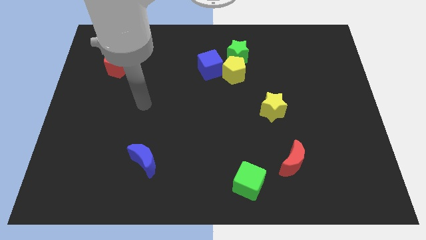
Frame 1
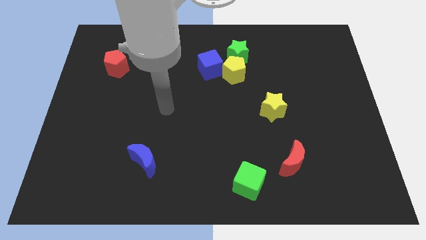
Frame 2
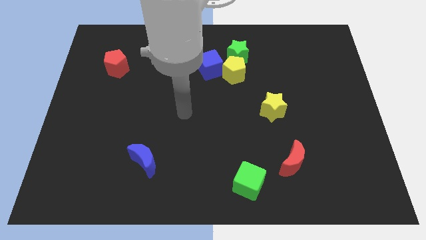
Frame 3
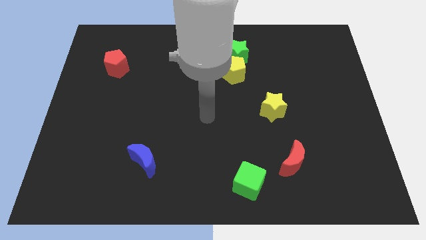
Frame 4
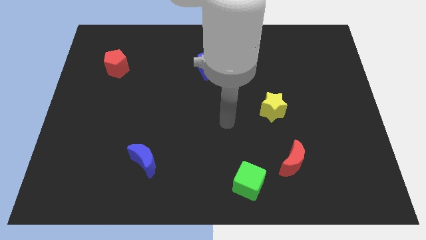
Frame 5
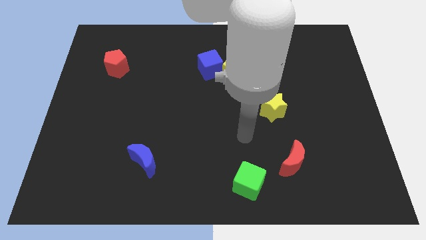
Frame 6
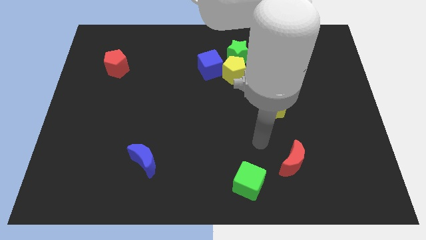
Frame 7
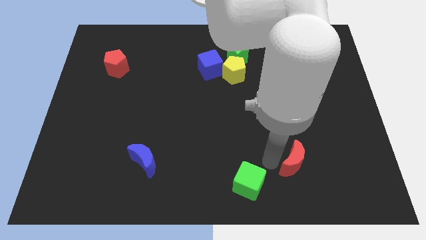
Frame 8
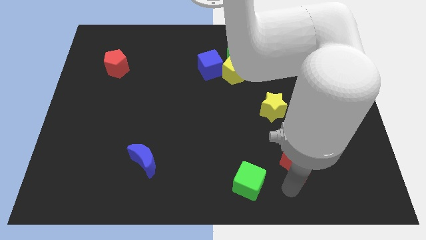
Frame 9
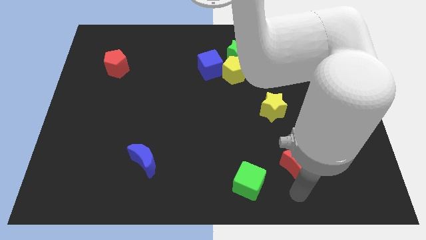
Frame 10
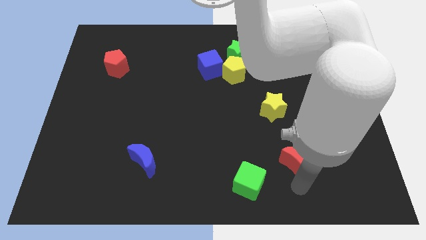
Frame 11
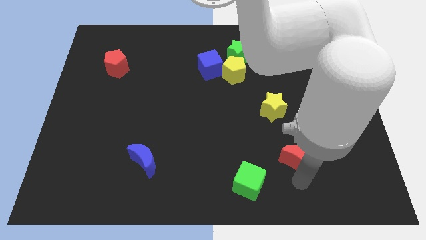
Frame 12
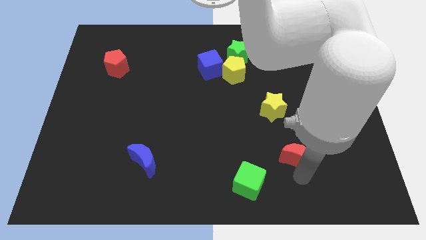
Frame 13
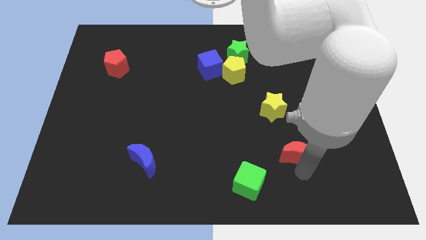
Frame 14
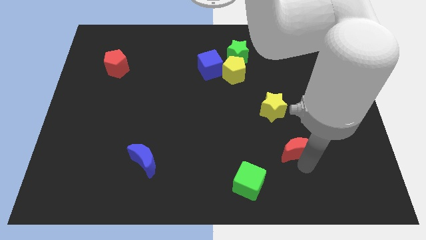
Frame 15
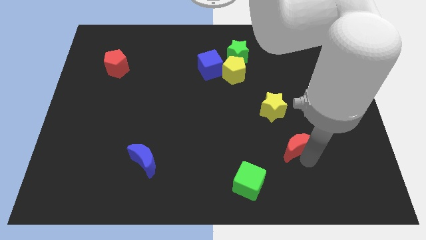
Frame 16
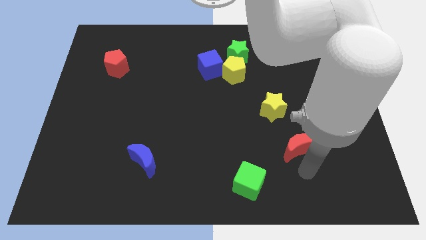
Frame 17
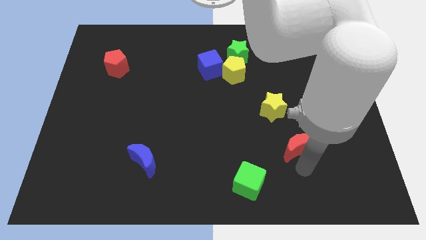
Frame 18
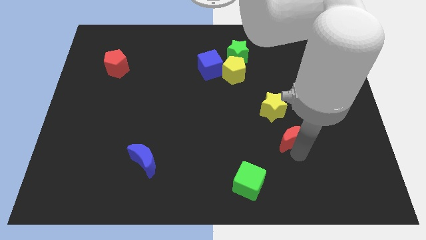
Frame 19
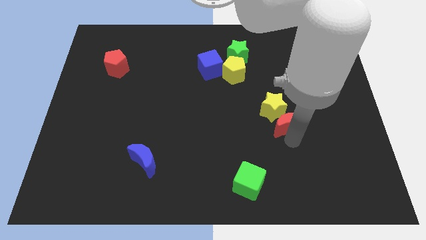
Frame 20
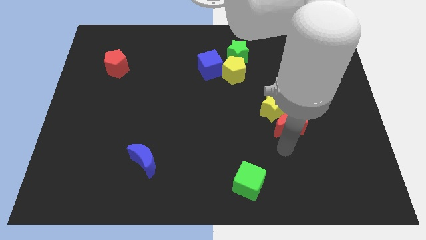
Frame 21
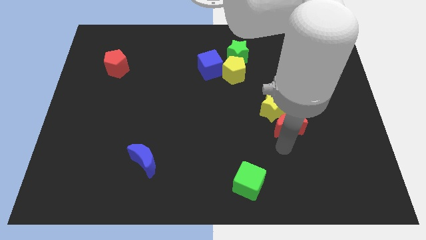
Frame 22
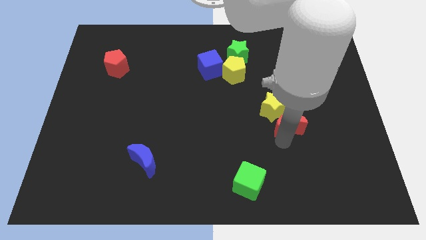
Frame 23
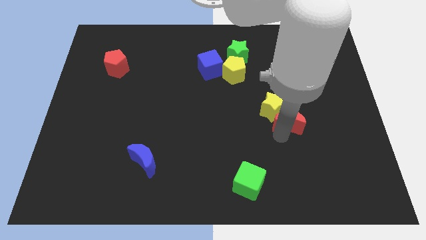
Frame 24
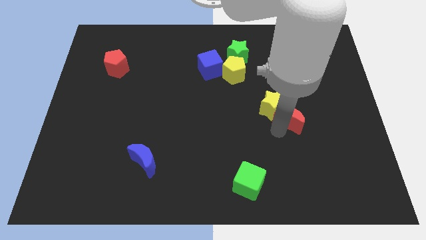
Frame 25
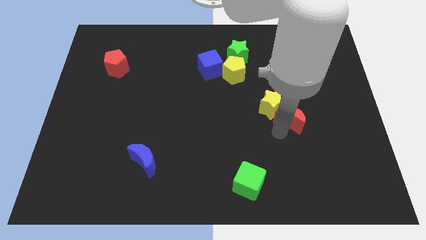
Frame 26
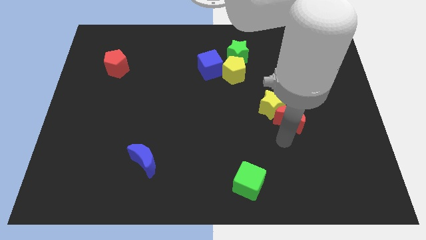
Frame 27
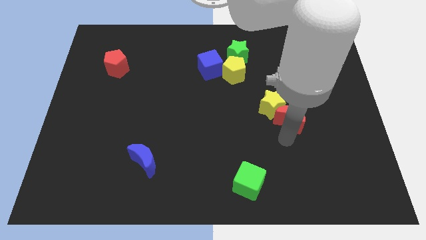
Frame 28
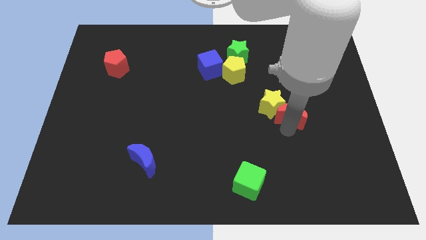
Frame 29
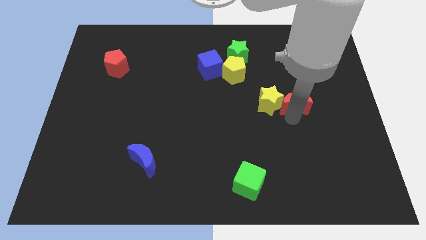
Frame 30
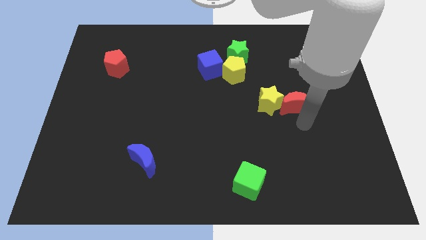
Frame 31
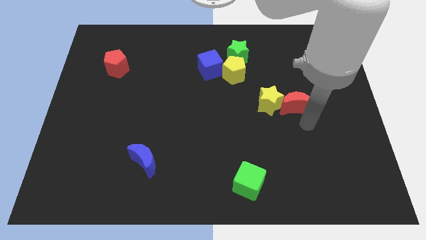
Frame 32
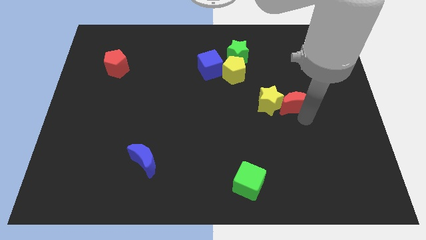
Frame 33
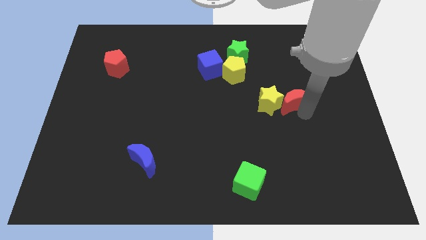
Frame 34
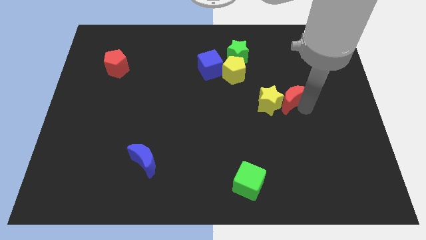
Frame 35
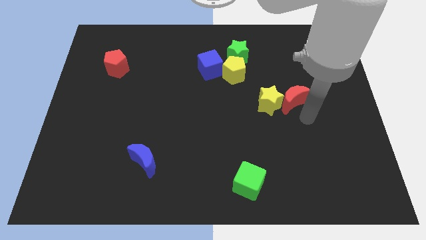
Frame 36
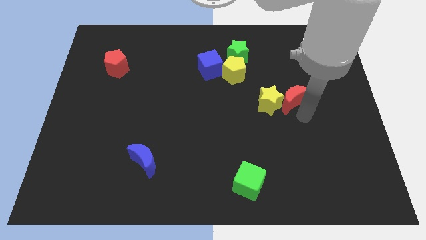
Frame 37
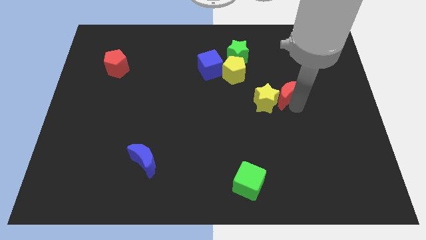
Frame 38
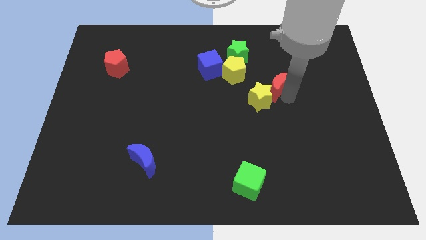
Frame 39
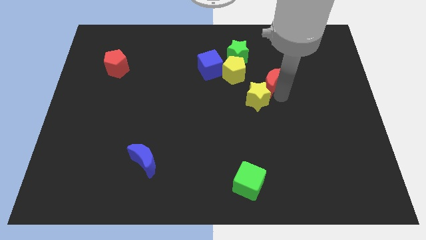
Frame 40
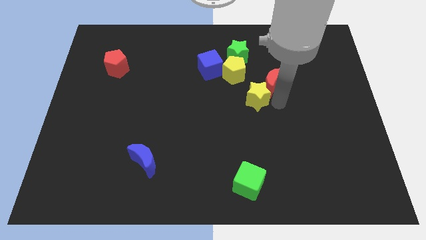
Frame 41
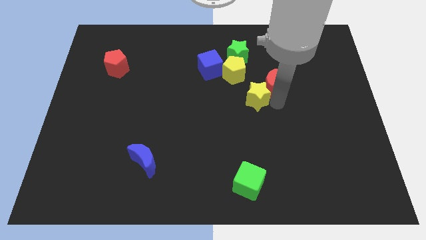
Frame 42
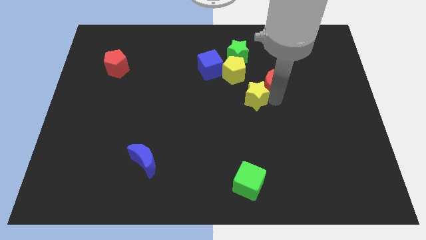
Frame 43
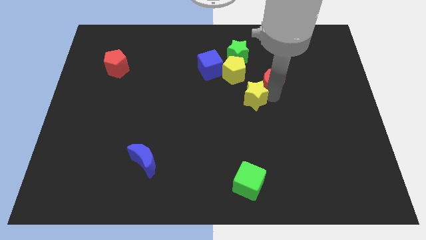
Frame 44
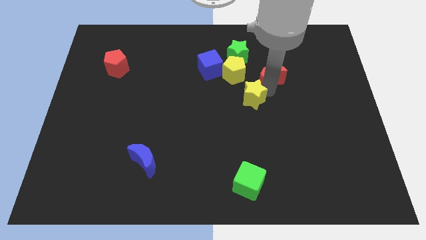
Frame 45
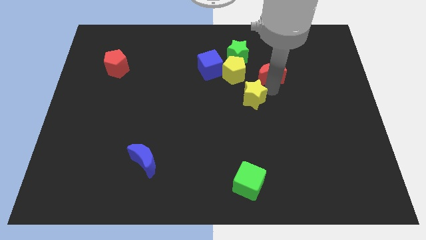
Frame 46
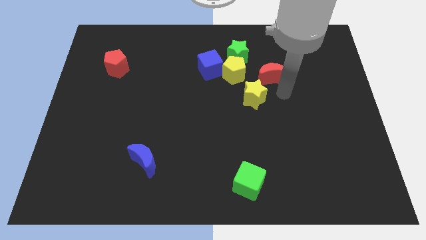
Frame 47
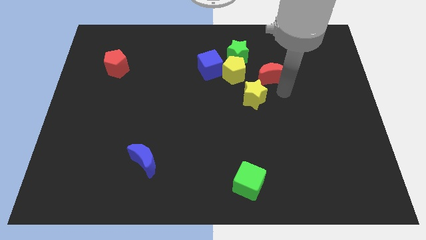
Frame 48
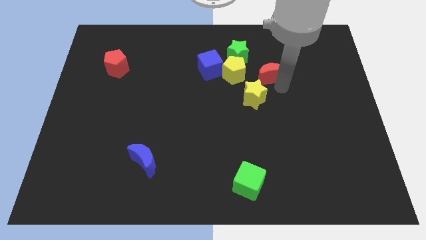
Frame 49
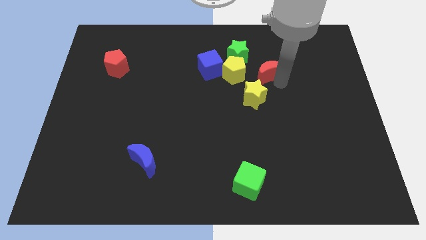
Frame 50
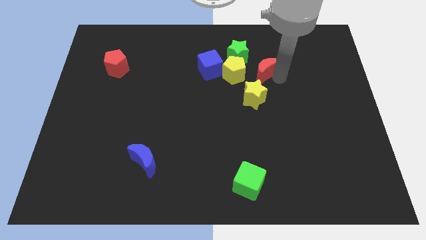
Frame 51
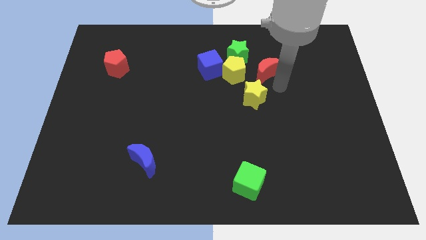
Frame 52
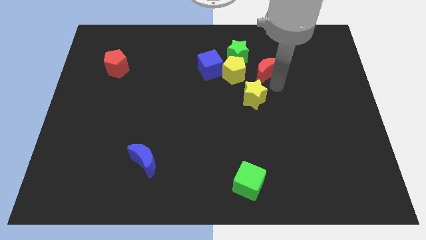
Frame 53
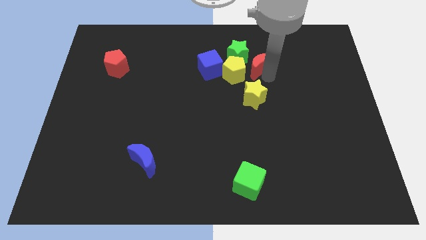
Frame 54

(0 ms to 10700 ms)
put the red moon to the top right side of the yellow pentagon

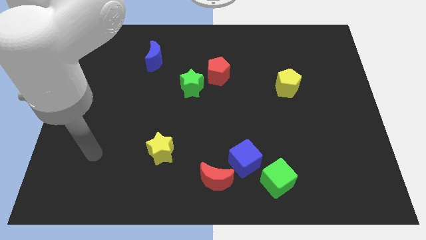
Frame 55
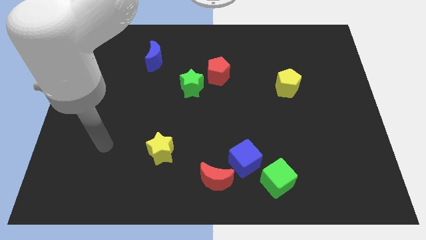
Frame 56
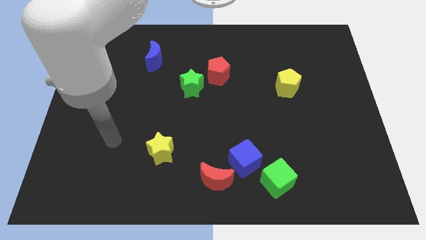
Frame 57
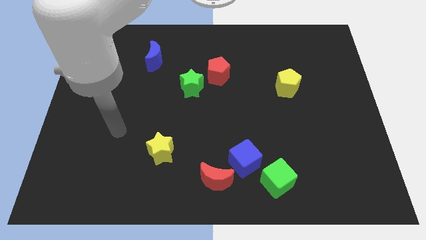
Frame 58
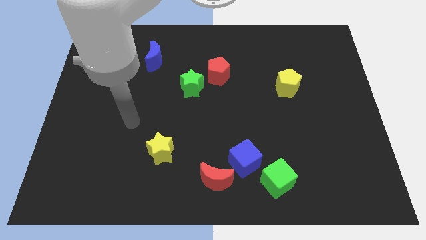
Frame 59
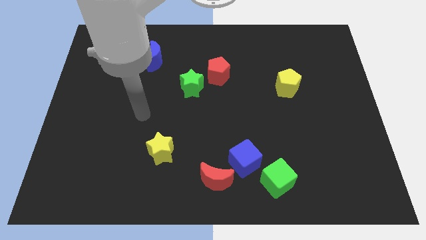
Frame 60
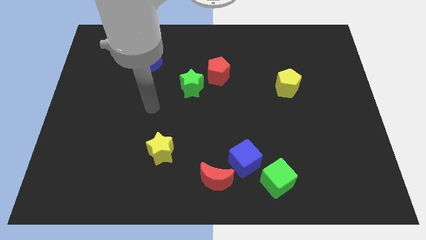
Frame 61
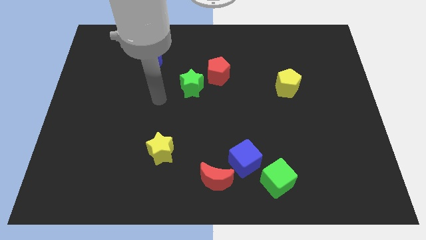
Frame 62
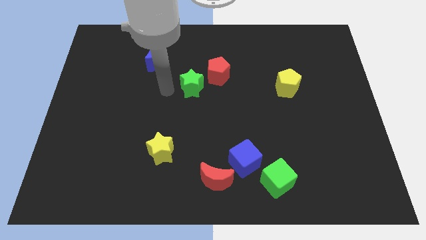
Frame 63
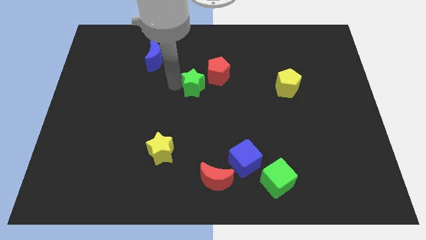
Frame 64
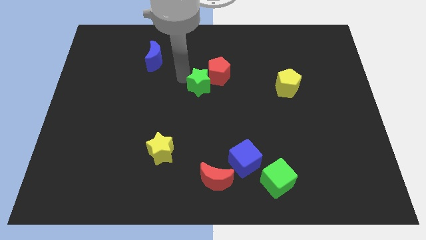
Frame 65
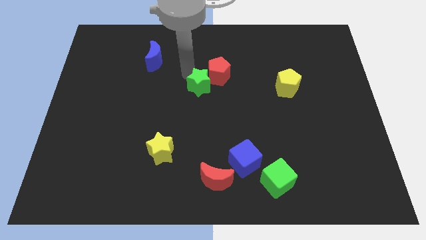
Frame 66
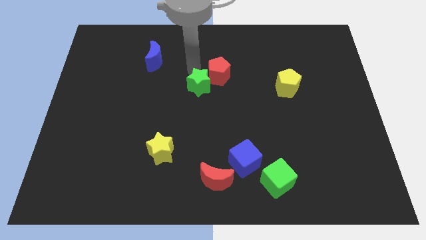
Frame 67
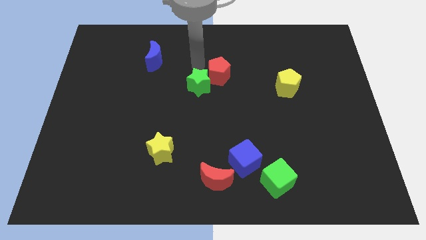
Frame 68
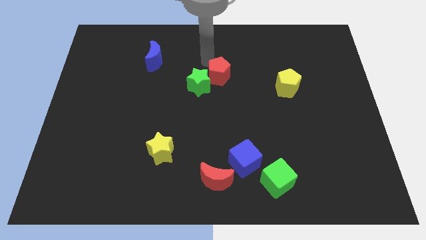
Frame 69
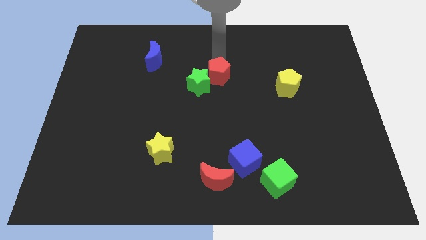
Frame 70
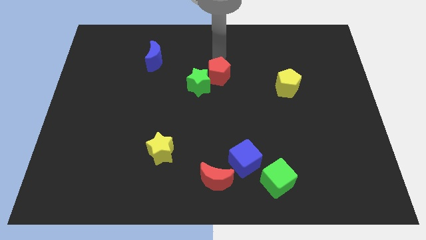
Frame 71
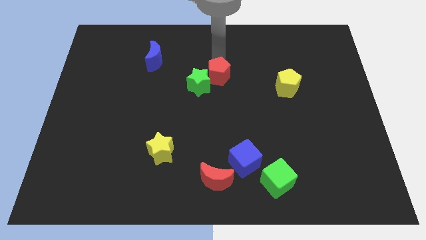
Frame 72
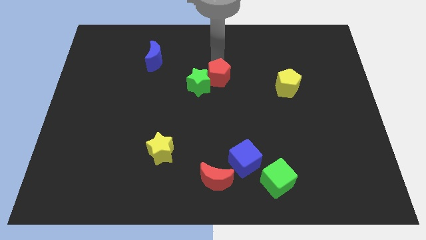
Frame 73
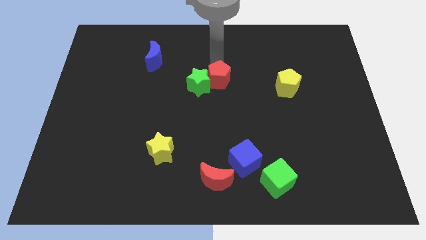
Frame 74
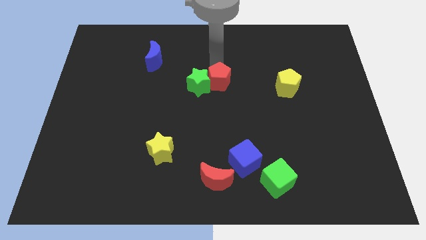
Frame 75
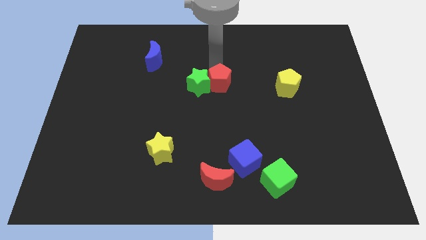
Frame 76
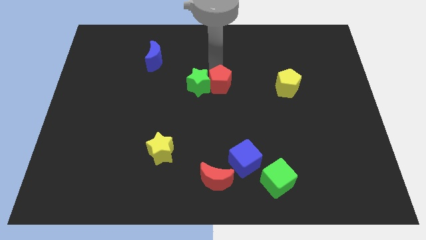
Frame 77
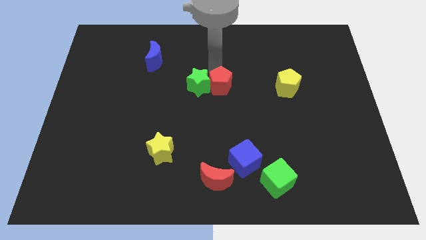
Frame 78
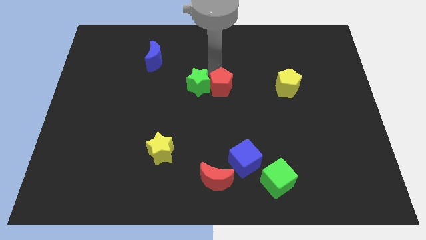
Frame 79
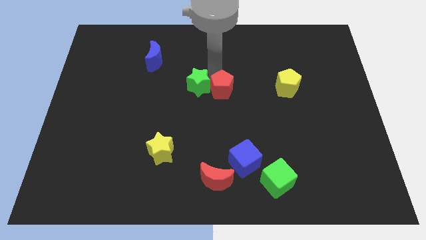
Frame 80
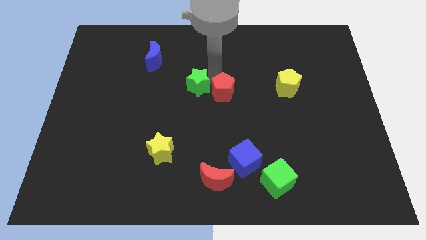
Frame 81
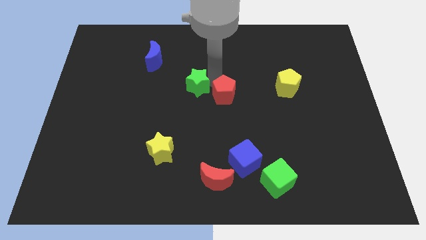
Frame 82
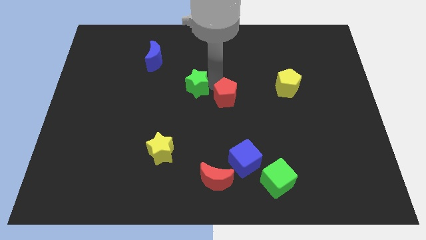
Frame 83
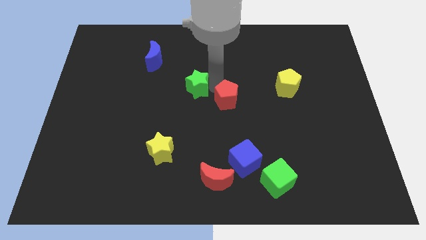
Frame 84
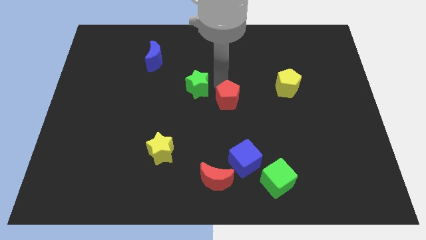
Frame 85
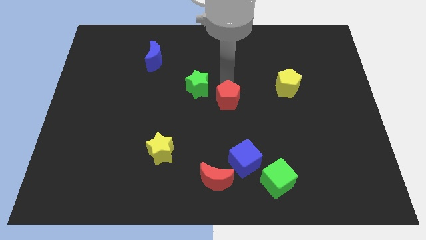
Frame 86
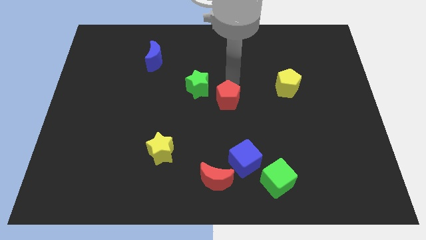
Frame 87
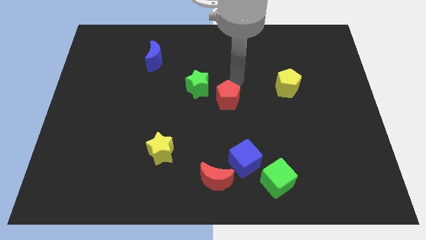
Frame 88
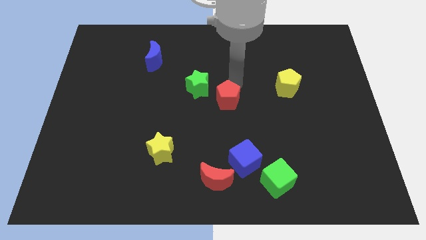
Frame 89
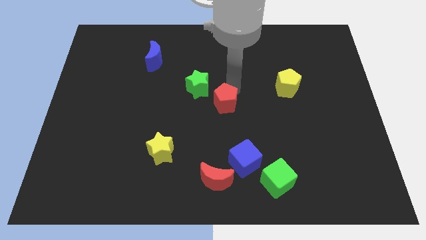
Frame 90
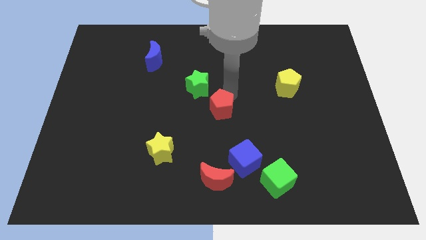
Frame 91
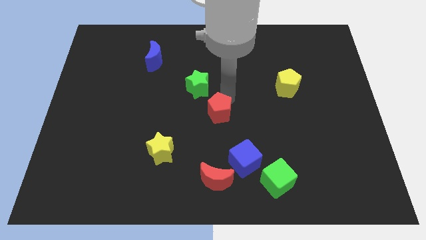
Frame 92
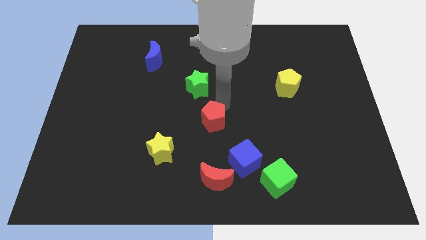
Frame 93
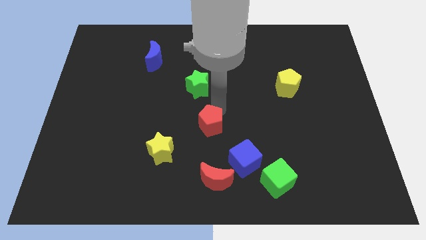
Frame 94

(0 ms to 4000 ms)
slide the red pentagon to the top left of the blue cube
